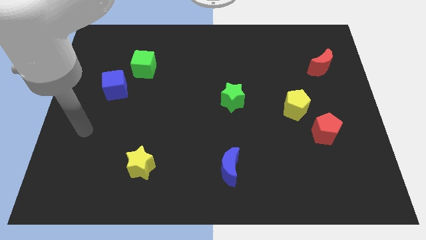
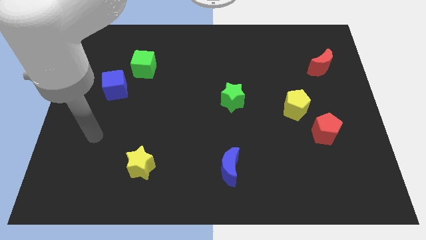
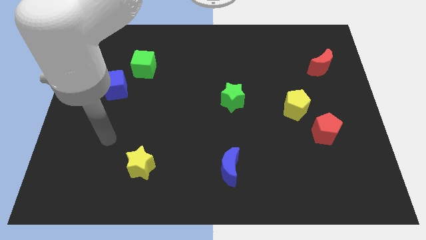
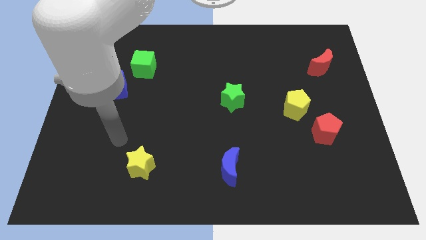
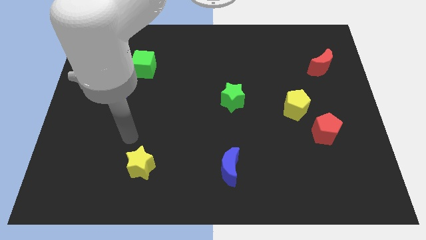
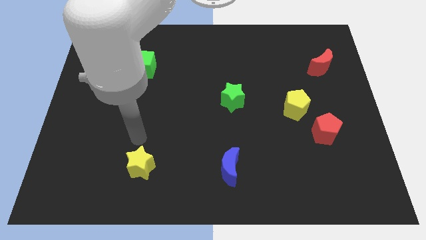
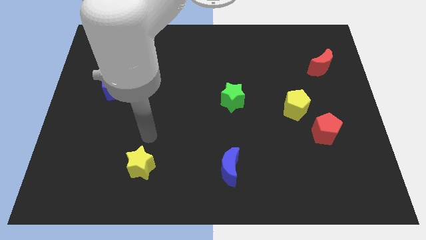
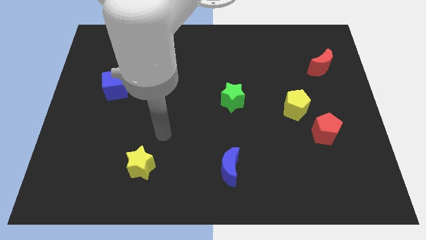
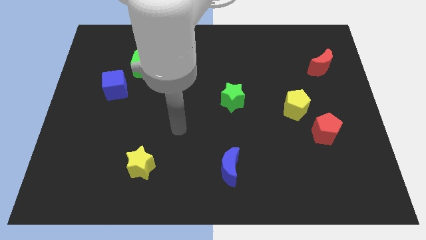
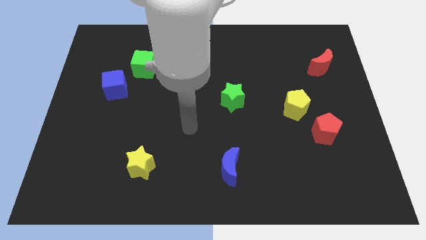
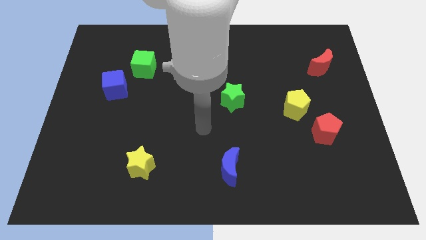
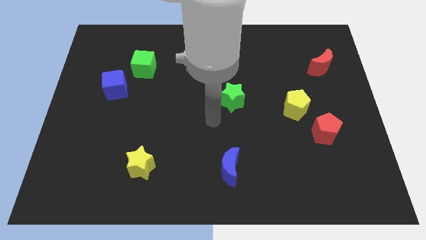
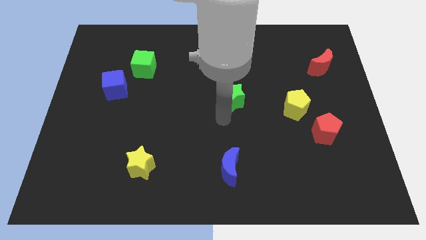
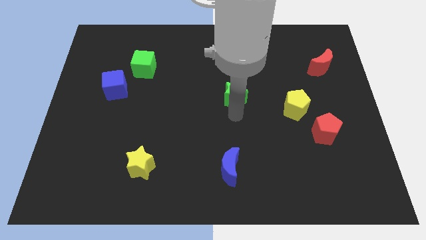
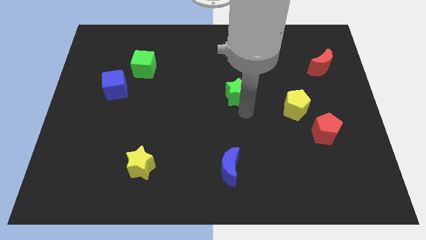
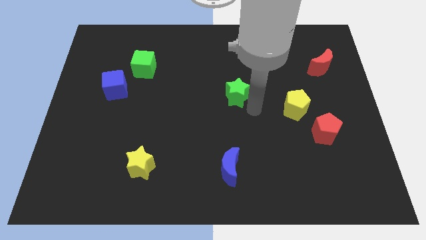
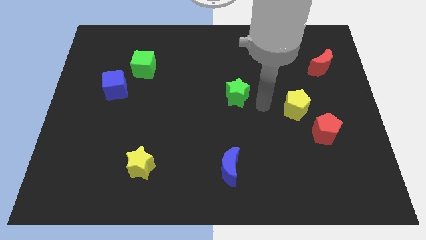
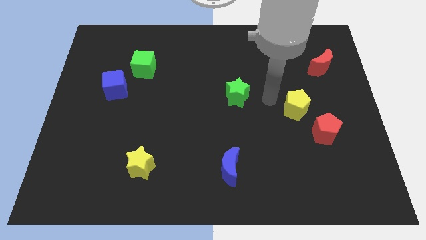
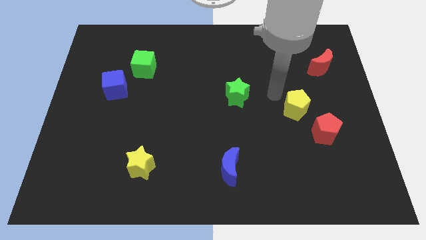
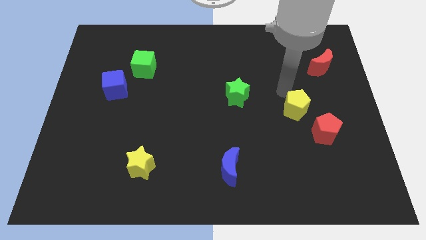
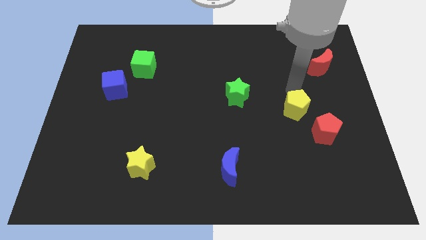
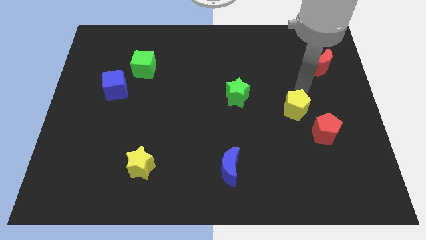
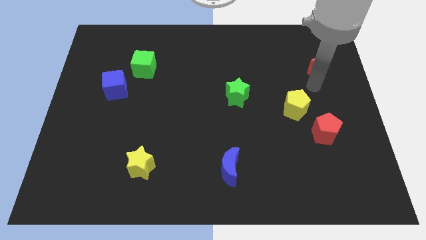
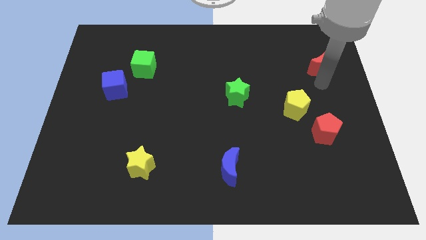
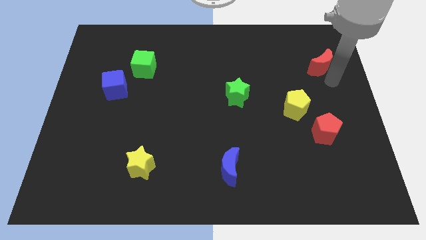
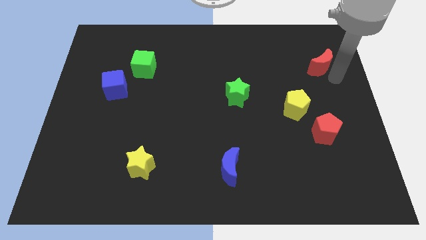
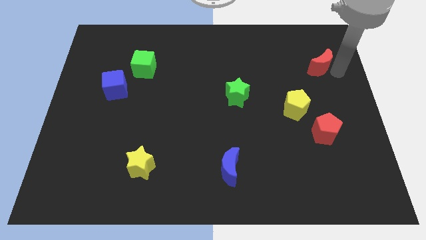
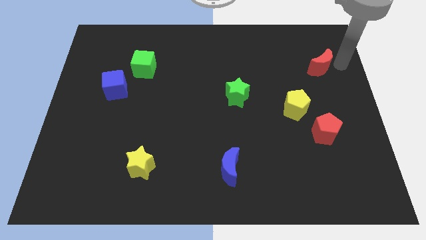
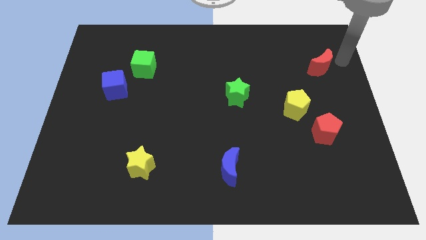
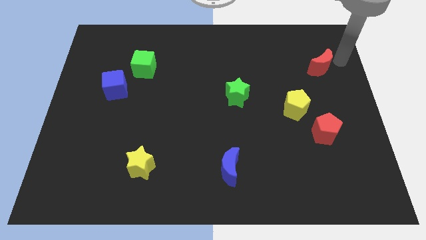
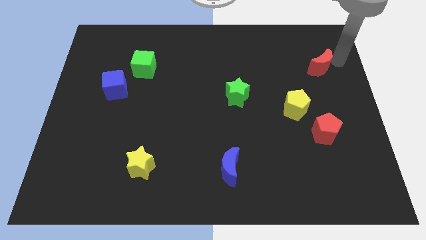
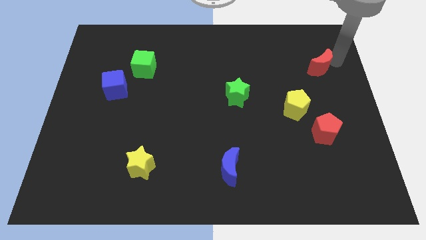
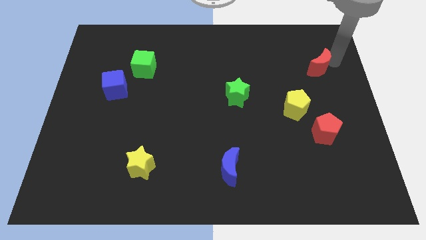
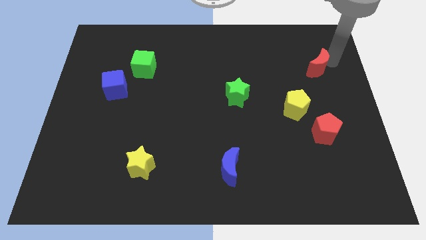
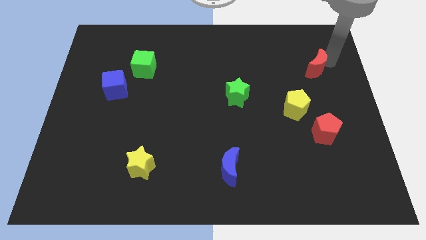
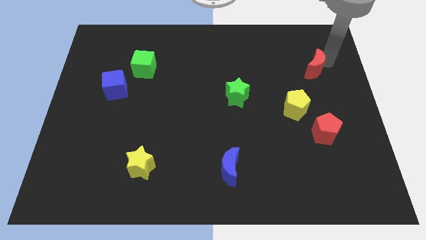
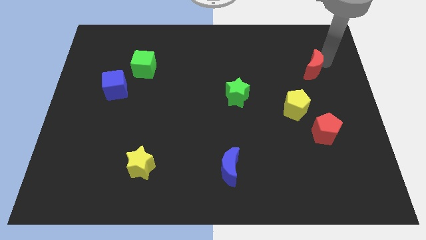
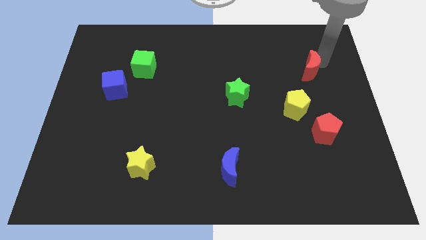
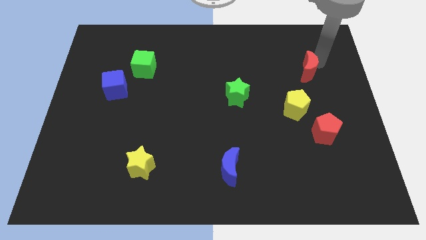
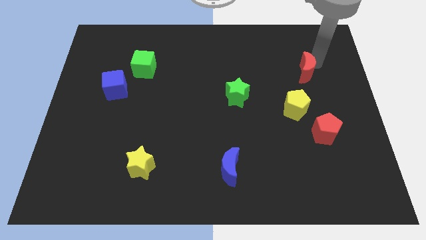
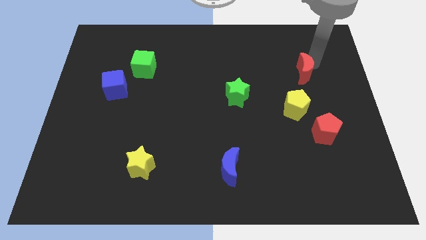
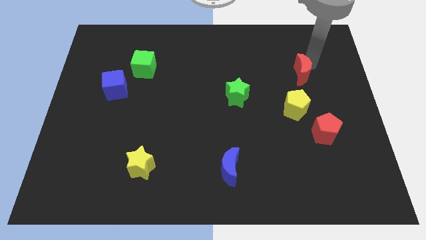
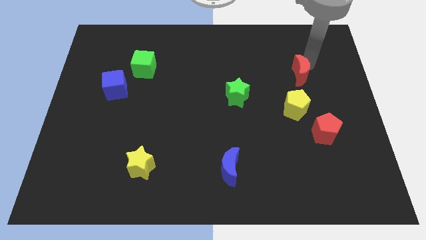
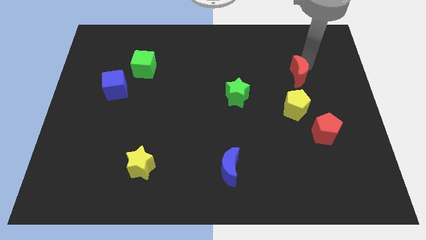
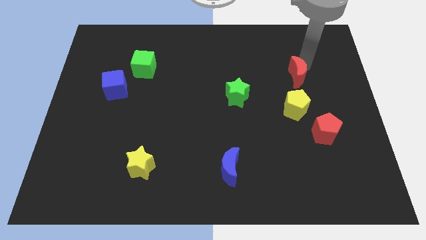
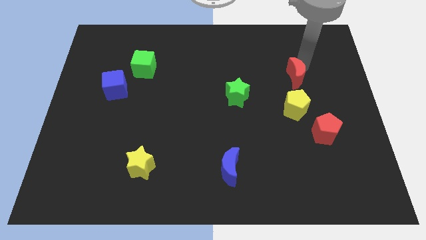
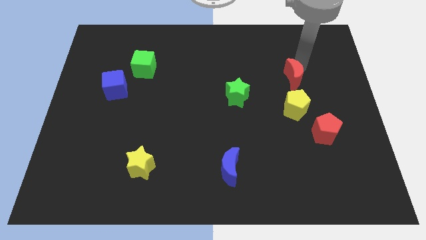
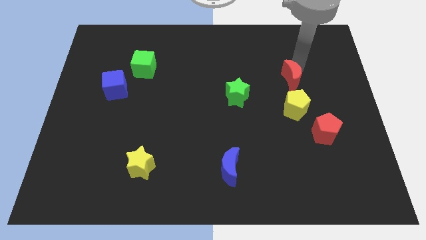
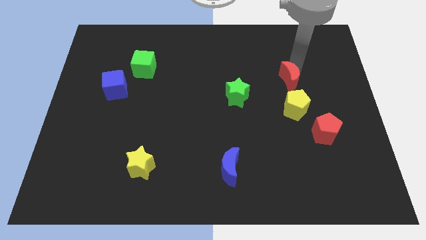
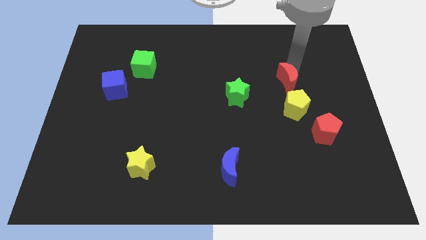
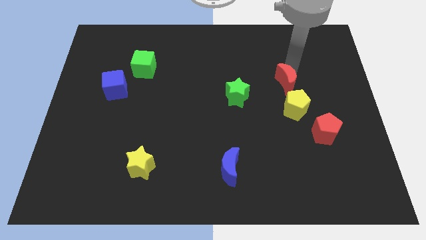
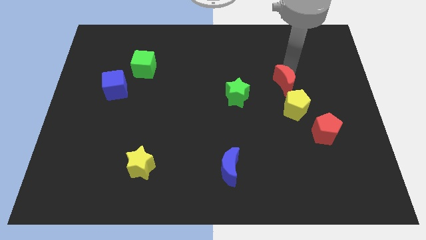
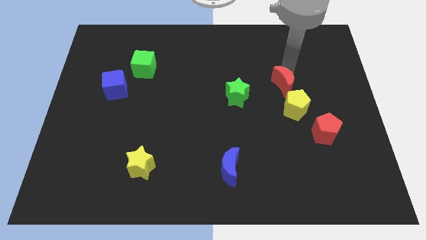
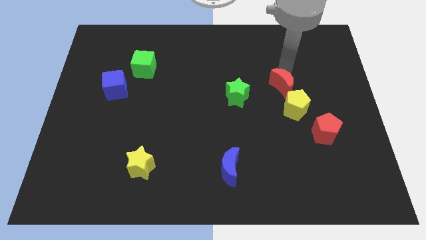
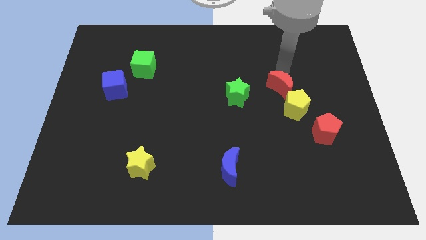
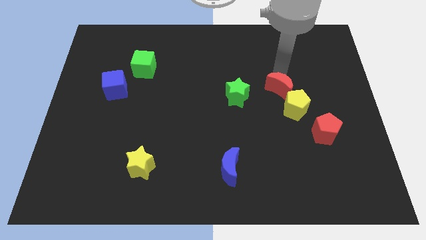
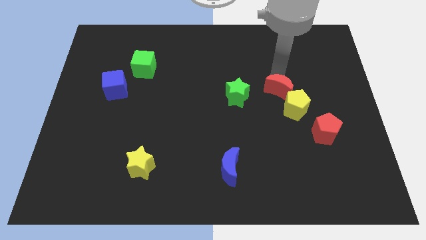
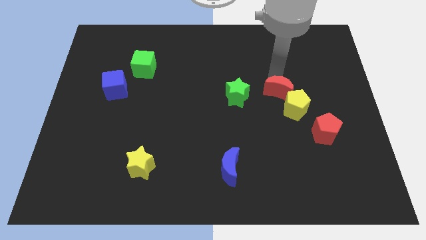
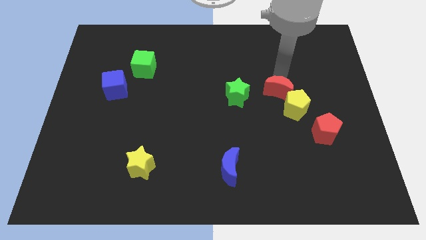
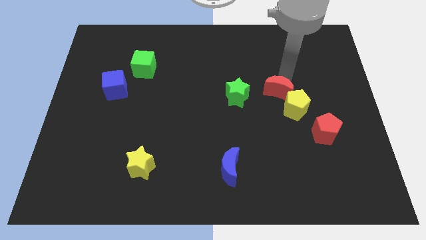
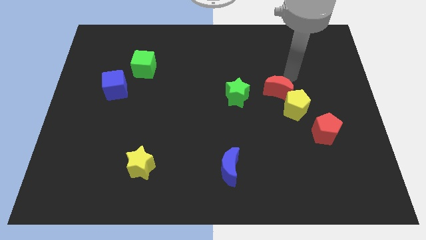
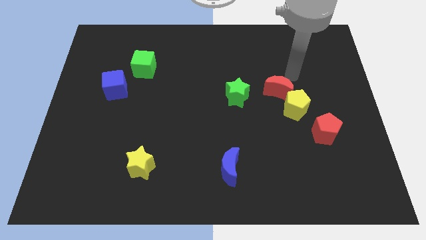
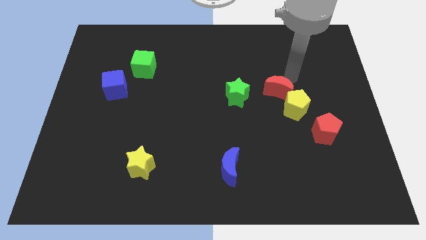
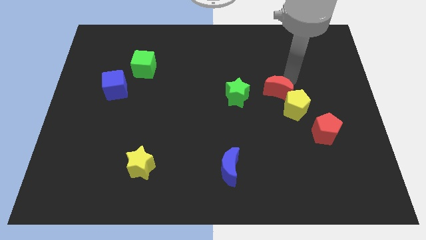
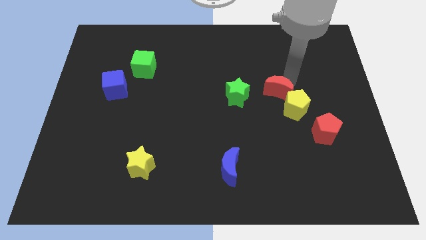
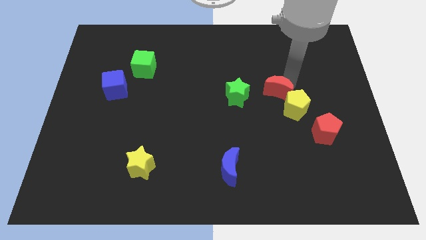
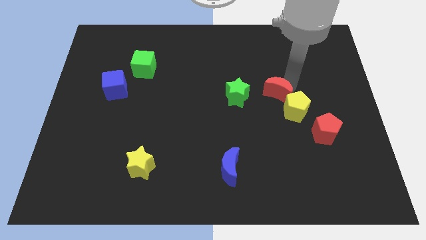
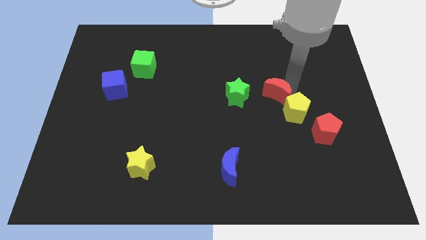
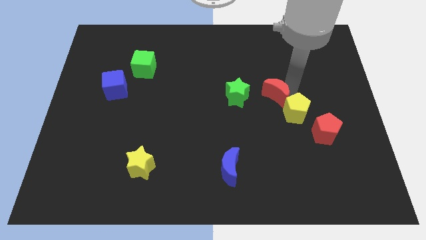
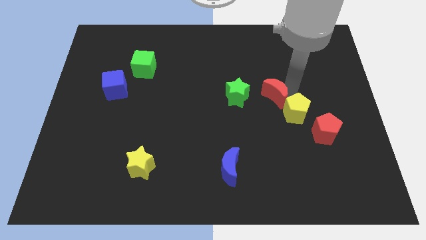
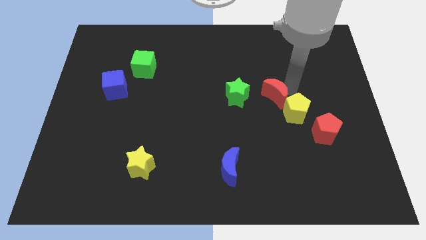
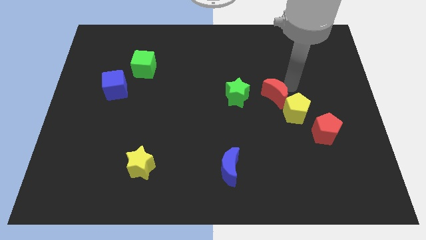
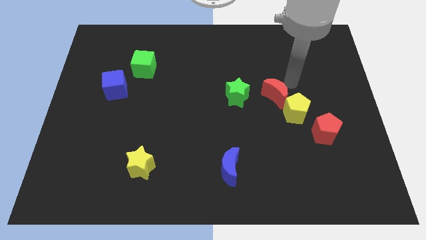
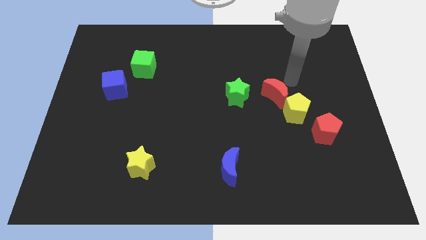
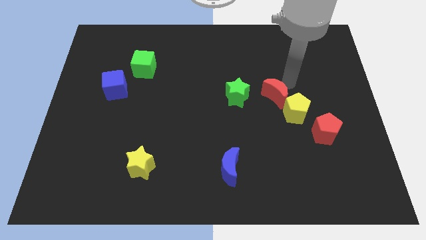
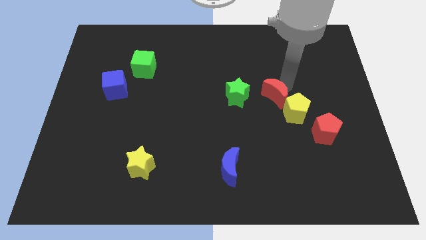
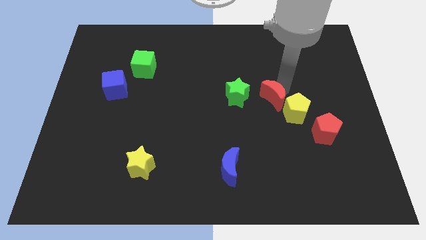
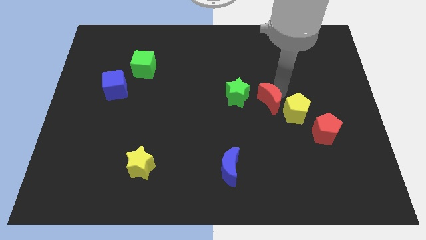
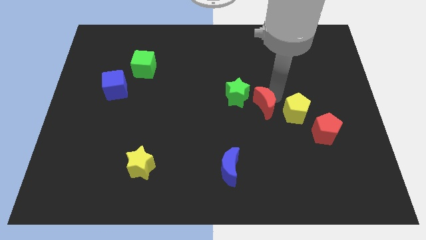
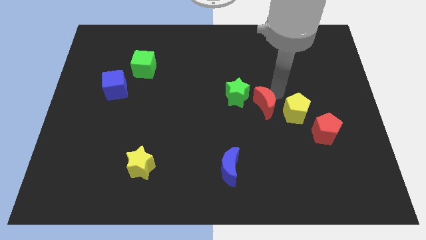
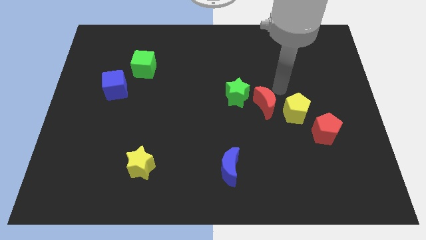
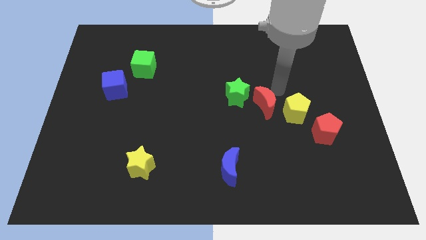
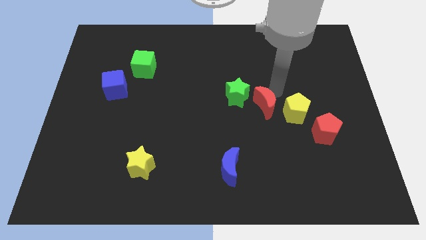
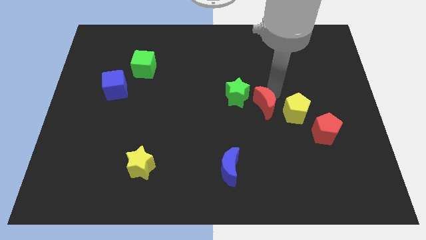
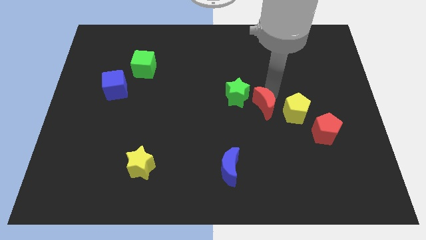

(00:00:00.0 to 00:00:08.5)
slide the red moon down and to the left diagonally
